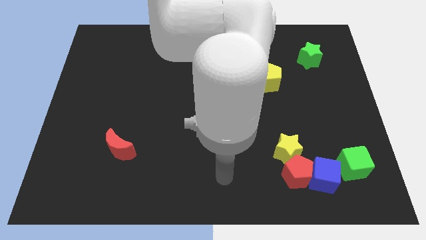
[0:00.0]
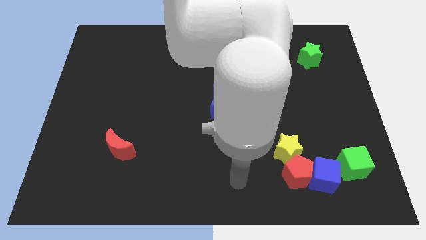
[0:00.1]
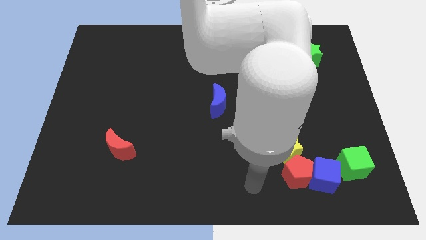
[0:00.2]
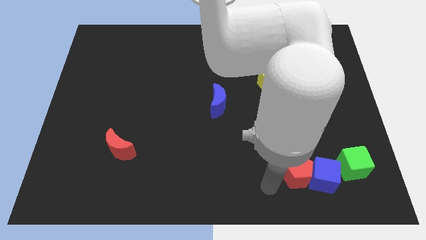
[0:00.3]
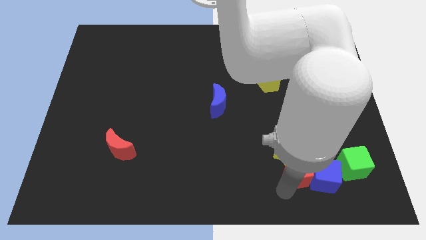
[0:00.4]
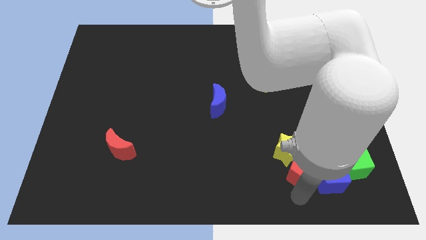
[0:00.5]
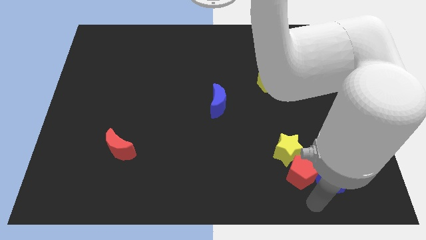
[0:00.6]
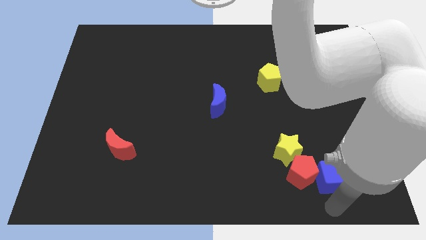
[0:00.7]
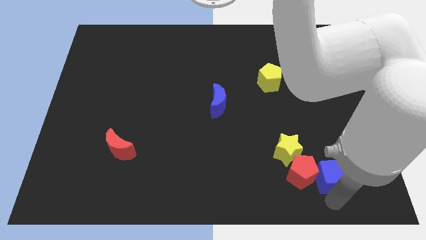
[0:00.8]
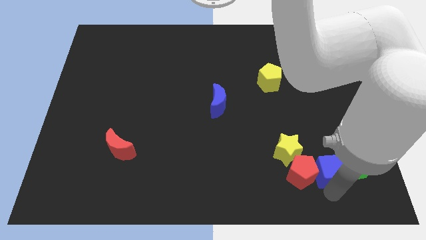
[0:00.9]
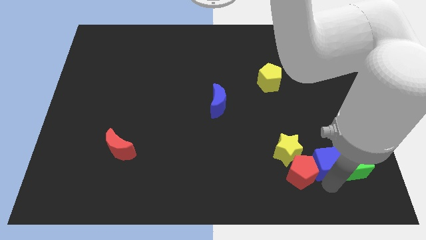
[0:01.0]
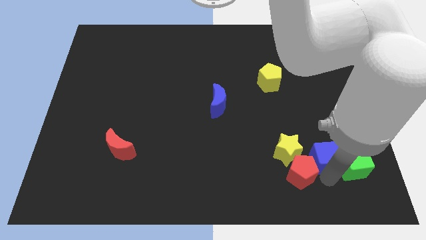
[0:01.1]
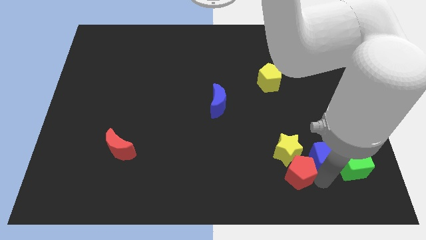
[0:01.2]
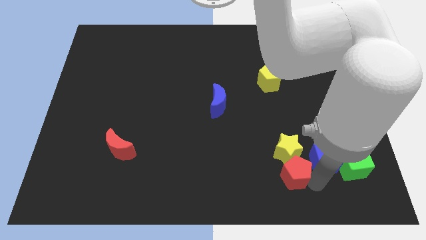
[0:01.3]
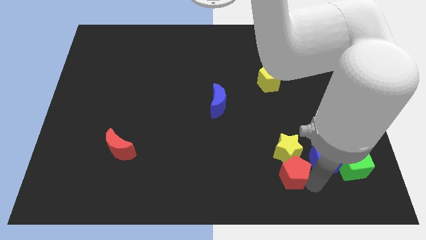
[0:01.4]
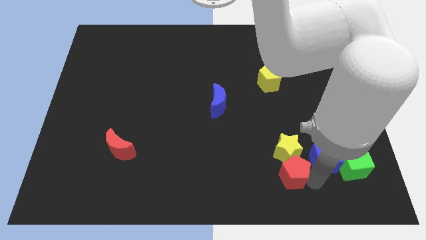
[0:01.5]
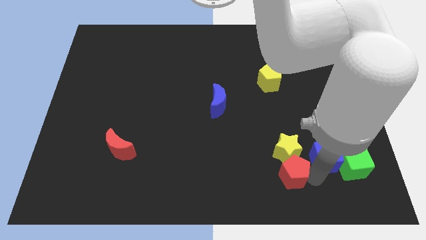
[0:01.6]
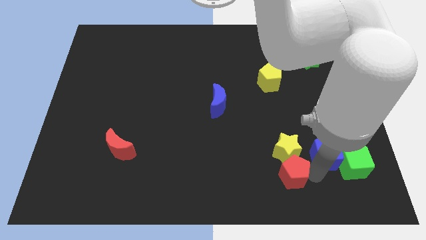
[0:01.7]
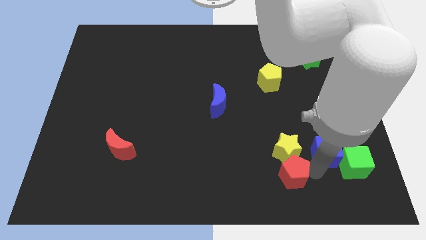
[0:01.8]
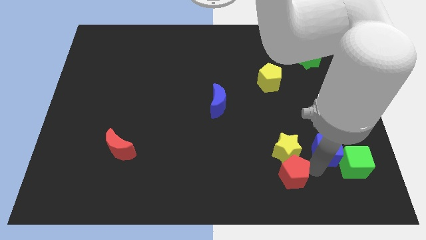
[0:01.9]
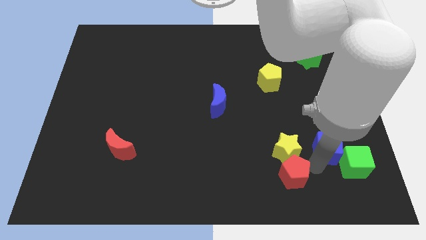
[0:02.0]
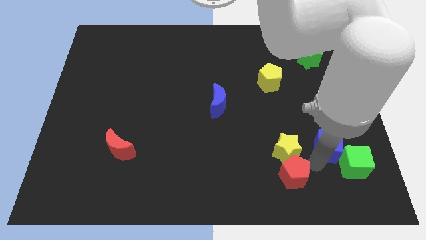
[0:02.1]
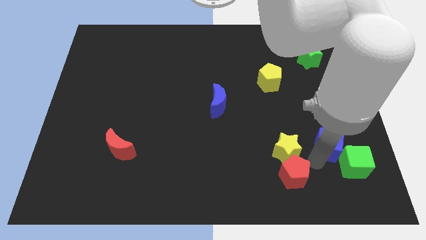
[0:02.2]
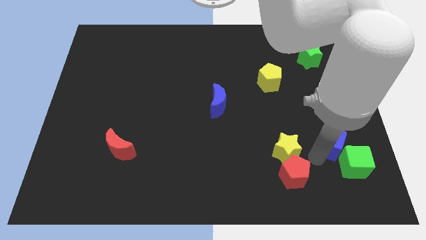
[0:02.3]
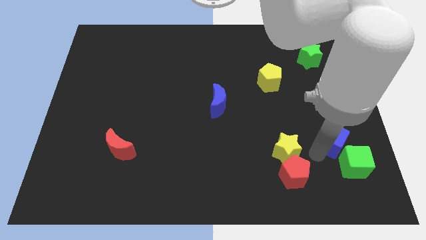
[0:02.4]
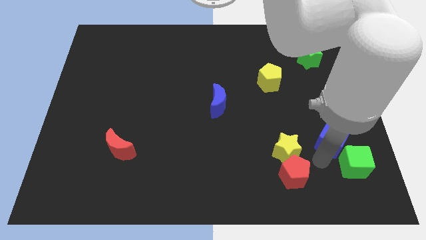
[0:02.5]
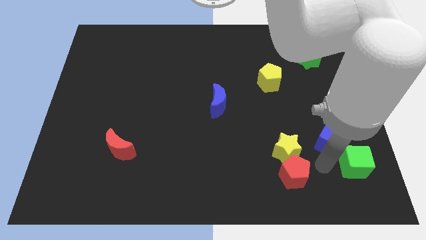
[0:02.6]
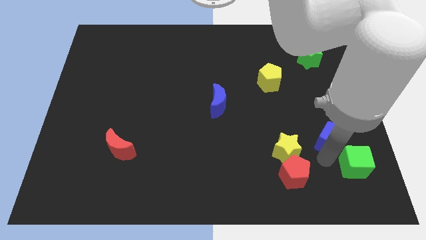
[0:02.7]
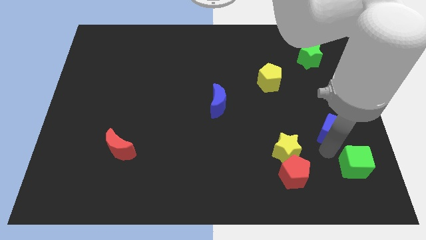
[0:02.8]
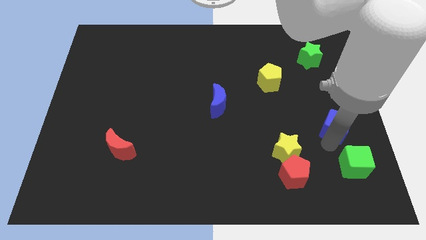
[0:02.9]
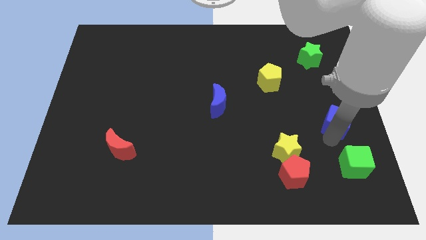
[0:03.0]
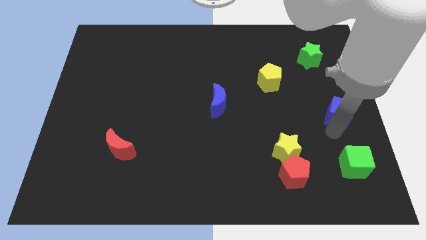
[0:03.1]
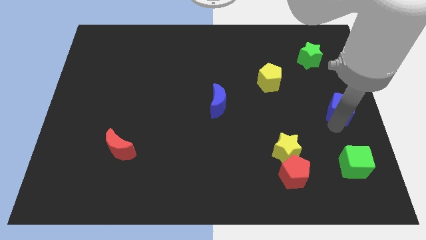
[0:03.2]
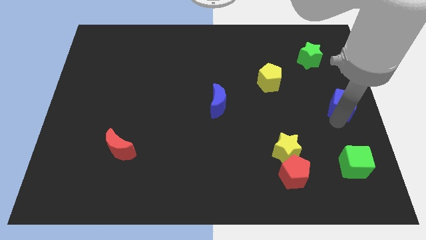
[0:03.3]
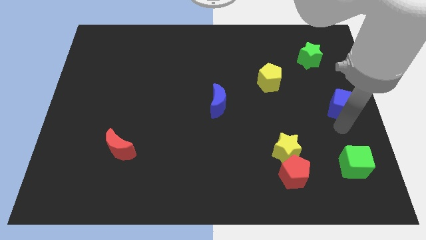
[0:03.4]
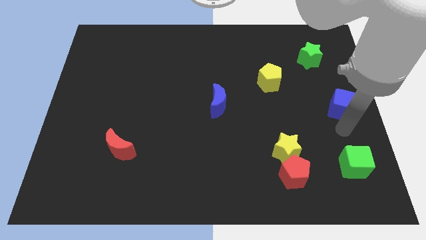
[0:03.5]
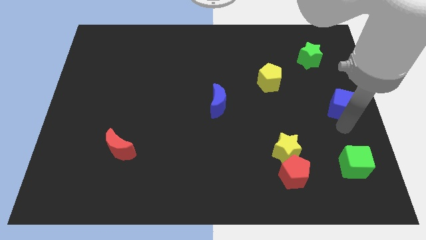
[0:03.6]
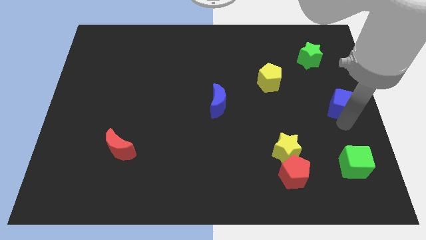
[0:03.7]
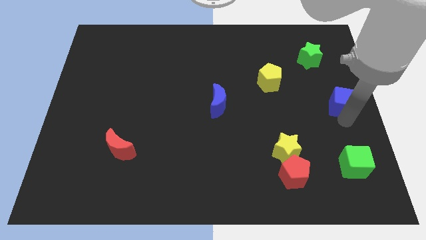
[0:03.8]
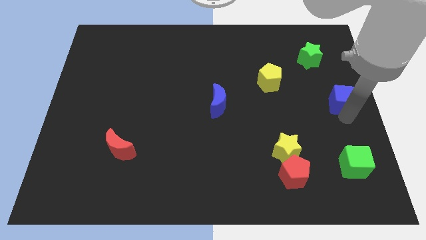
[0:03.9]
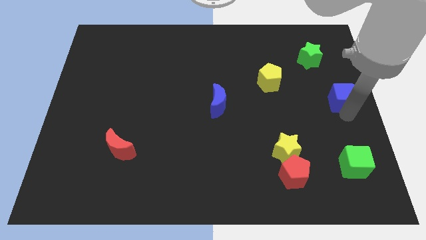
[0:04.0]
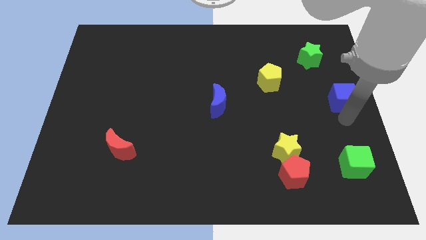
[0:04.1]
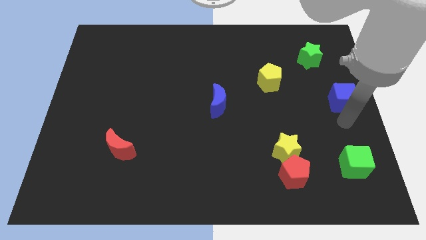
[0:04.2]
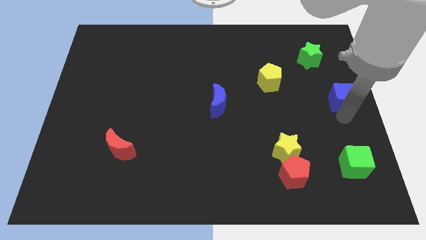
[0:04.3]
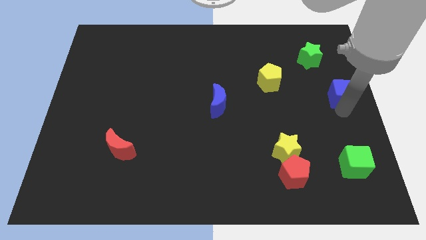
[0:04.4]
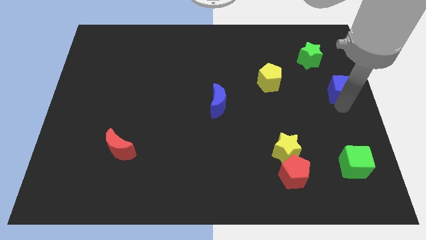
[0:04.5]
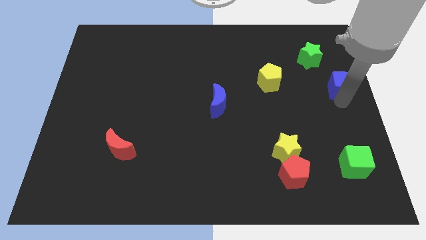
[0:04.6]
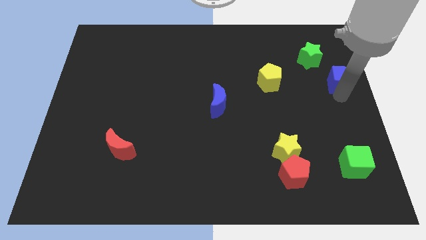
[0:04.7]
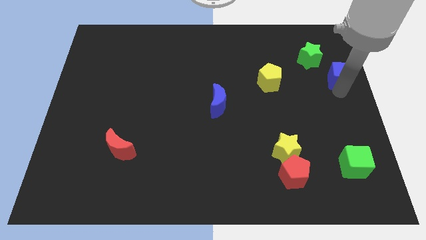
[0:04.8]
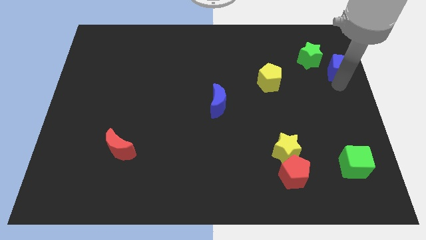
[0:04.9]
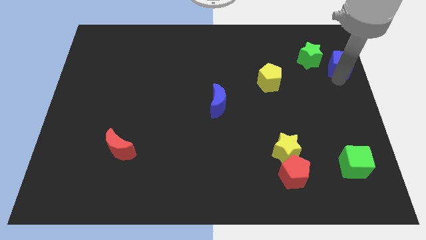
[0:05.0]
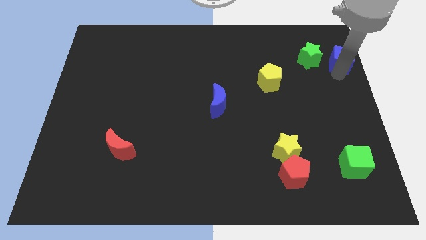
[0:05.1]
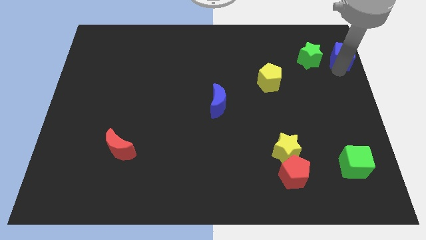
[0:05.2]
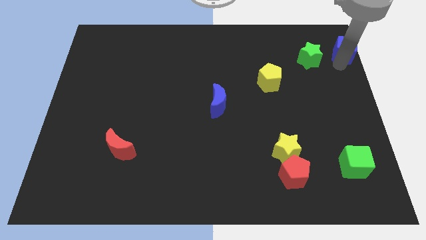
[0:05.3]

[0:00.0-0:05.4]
slide the blue cube to the upper right corner

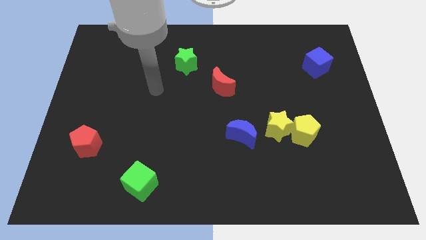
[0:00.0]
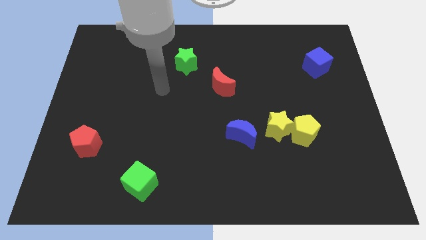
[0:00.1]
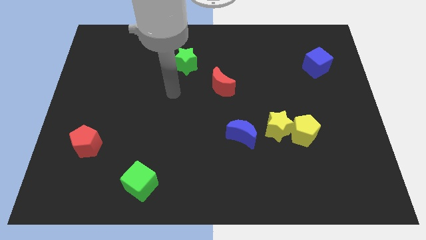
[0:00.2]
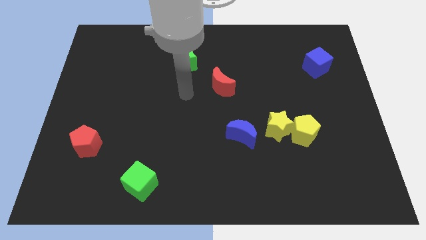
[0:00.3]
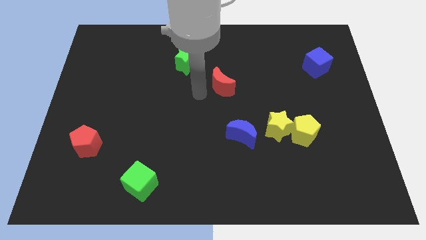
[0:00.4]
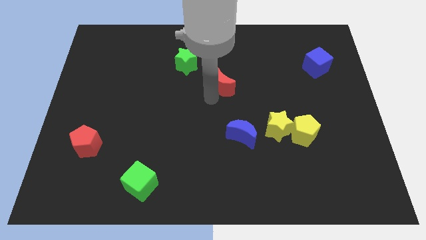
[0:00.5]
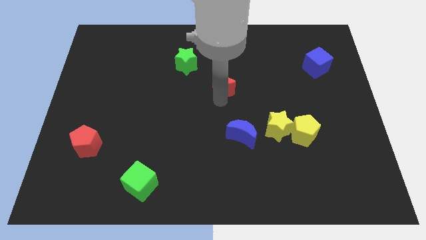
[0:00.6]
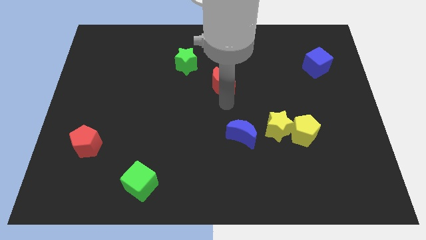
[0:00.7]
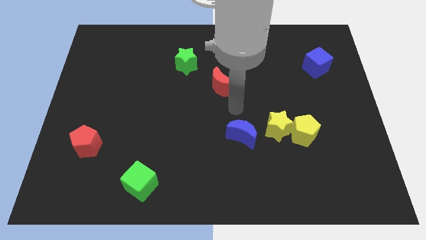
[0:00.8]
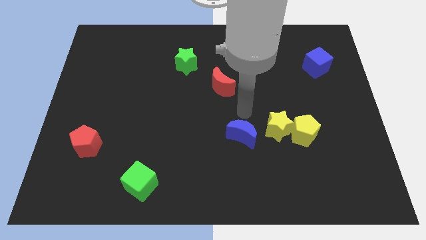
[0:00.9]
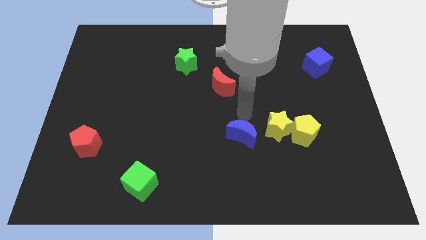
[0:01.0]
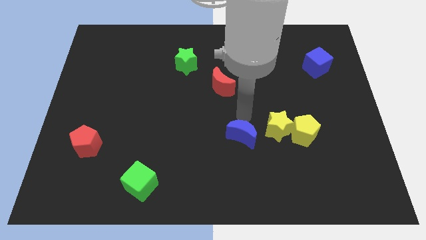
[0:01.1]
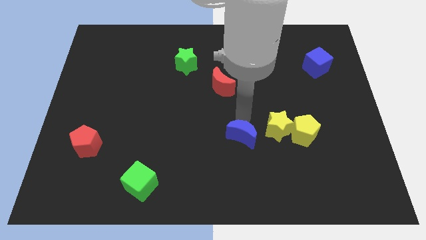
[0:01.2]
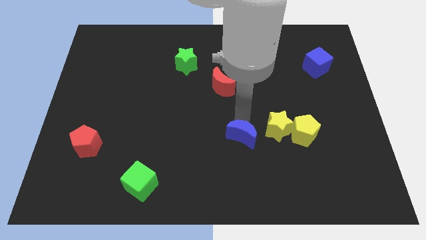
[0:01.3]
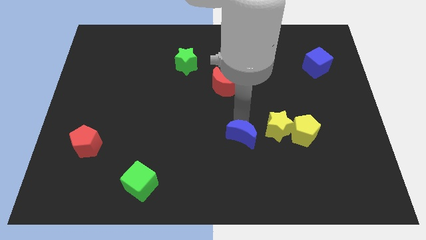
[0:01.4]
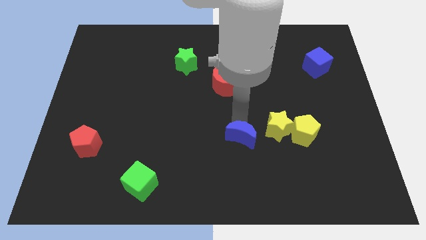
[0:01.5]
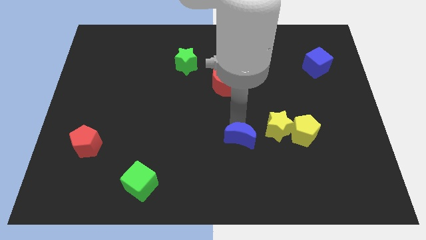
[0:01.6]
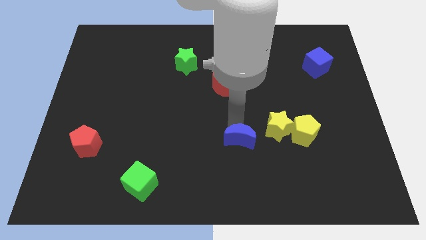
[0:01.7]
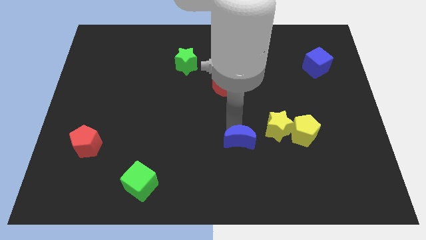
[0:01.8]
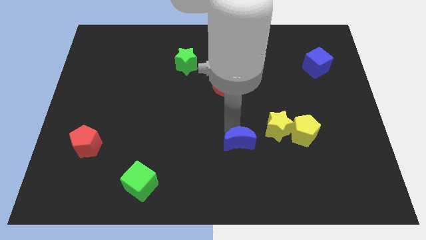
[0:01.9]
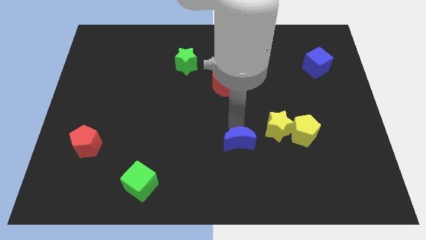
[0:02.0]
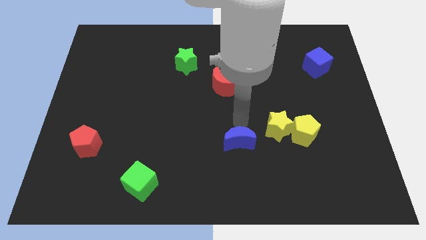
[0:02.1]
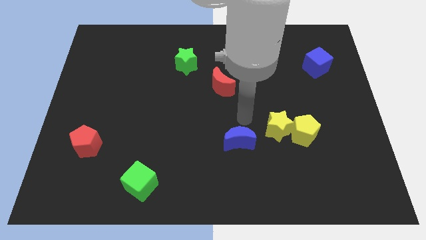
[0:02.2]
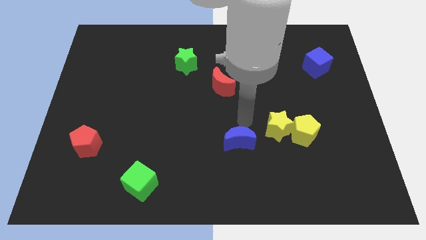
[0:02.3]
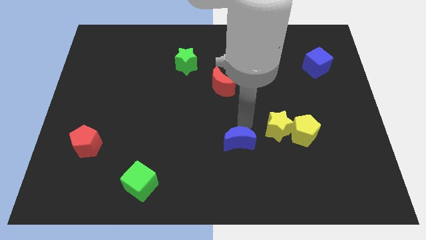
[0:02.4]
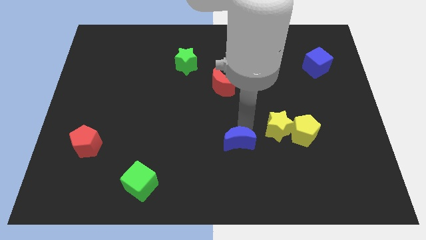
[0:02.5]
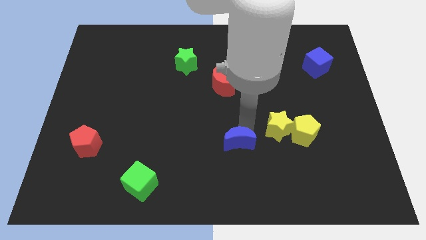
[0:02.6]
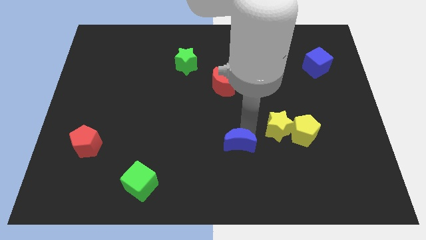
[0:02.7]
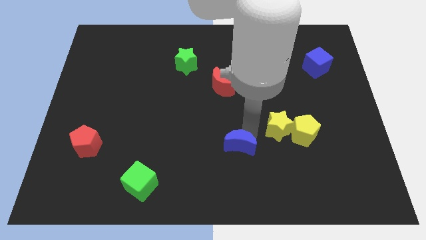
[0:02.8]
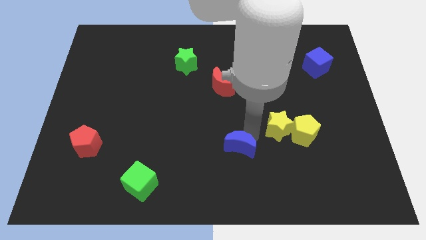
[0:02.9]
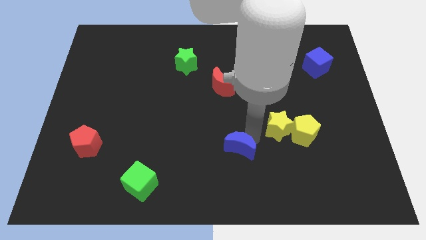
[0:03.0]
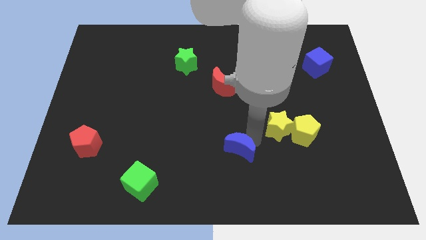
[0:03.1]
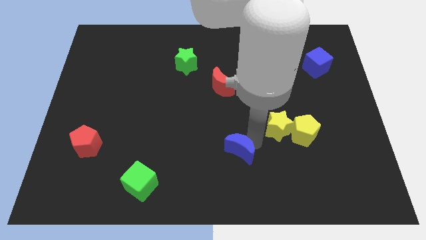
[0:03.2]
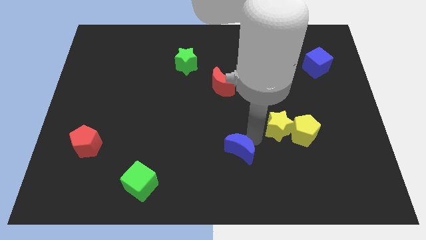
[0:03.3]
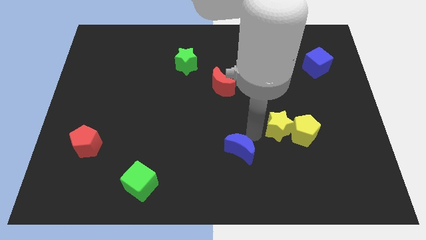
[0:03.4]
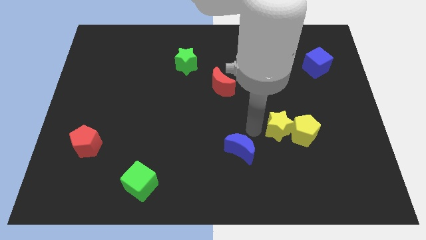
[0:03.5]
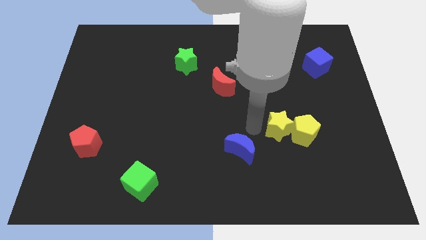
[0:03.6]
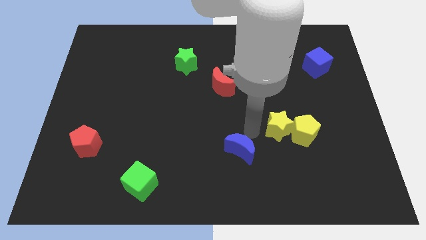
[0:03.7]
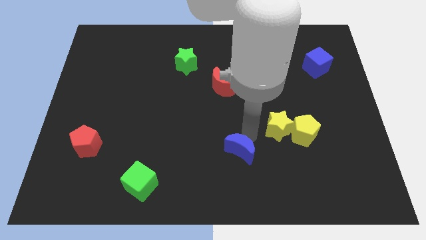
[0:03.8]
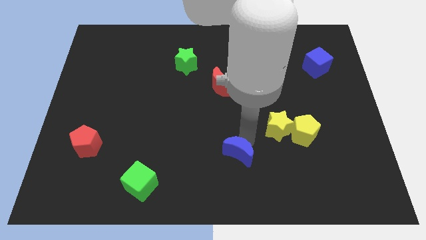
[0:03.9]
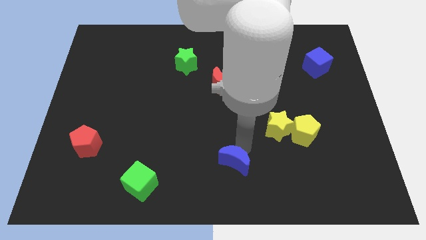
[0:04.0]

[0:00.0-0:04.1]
move the blue moon to the bottom side
